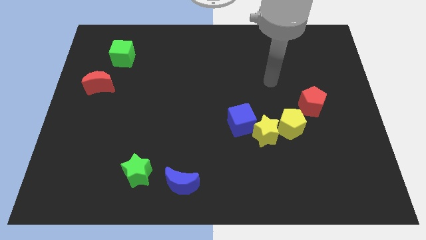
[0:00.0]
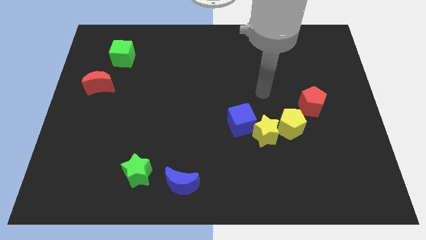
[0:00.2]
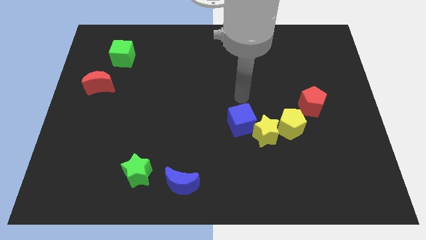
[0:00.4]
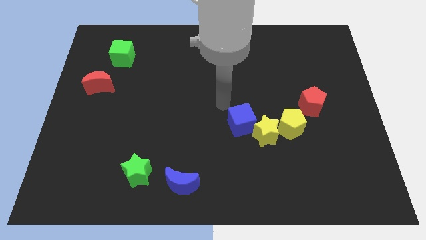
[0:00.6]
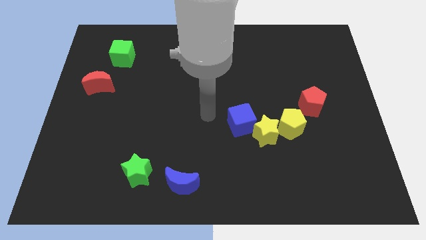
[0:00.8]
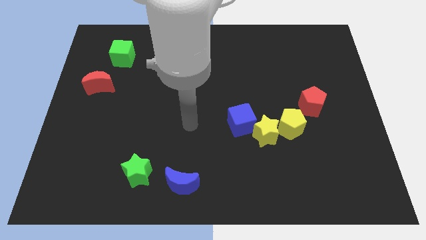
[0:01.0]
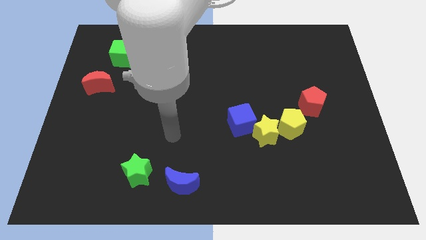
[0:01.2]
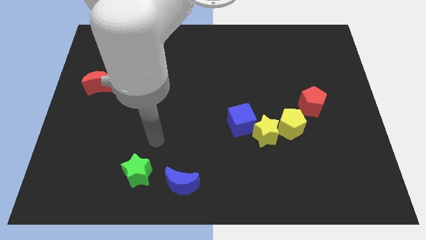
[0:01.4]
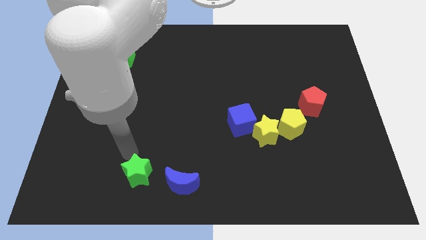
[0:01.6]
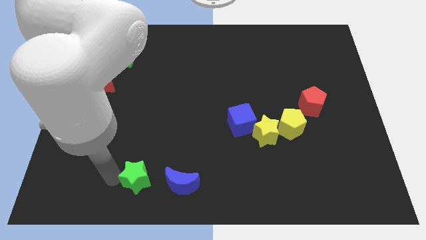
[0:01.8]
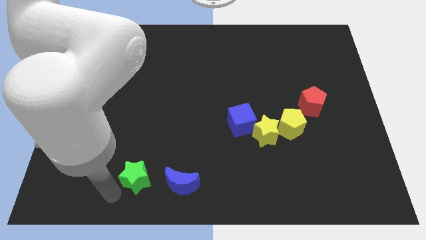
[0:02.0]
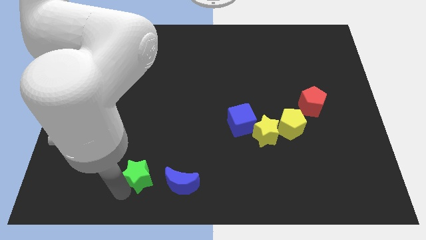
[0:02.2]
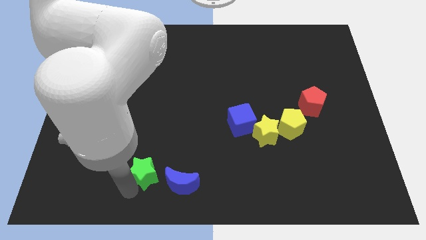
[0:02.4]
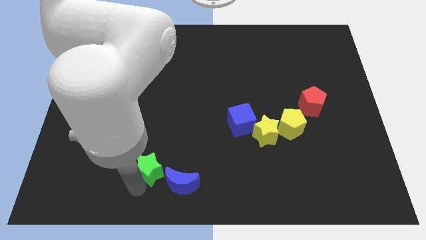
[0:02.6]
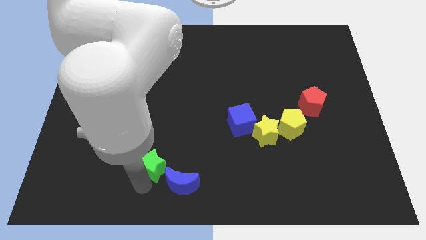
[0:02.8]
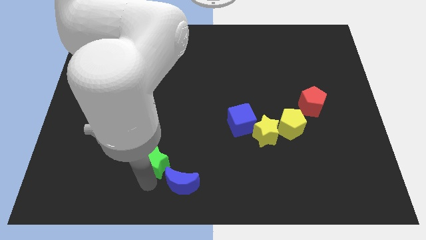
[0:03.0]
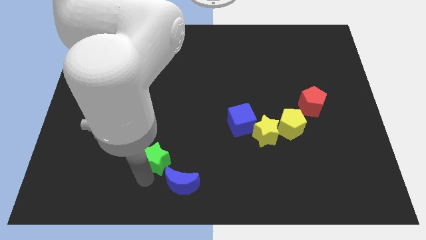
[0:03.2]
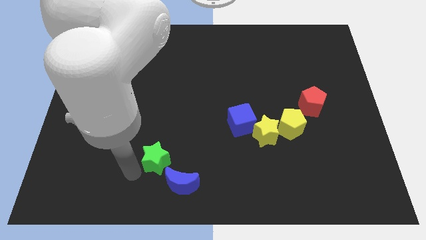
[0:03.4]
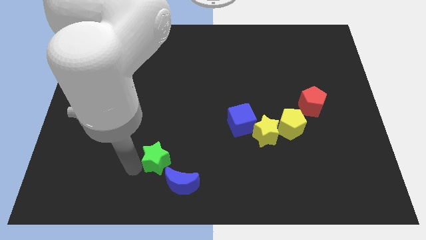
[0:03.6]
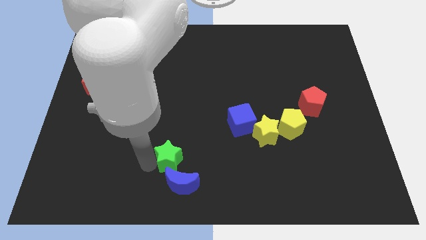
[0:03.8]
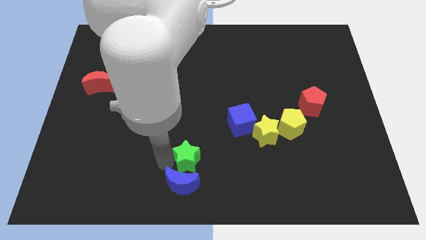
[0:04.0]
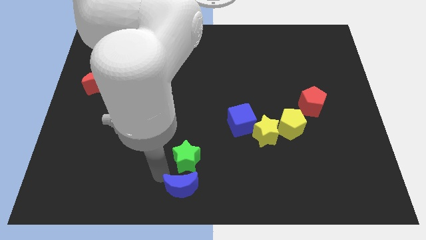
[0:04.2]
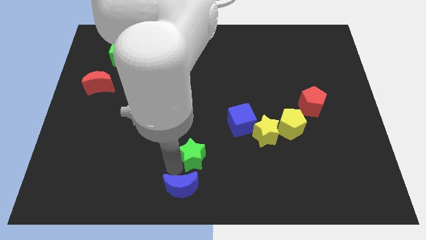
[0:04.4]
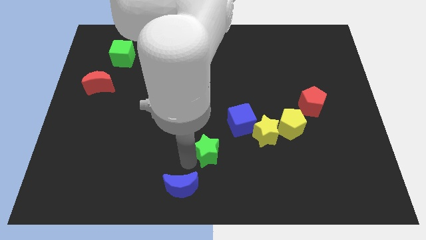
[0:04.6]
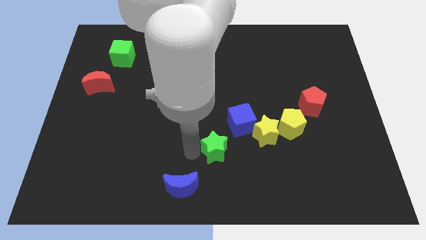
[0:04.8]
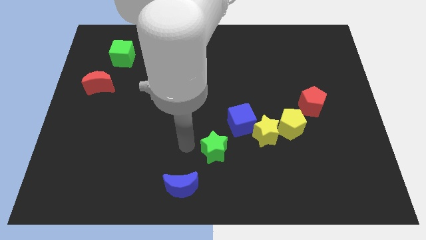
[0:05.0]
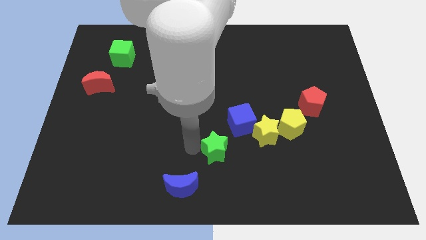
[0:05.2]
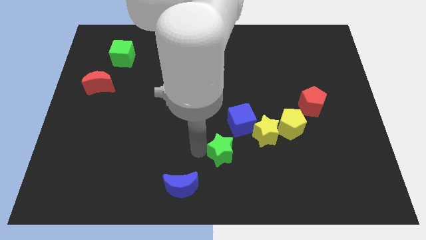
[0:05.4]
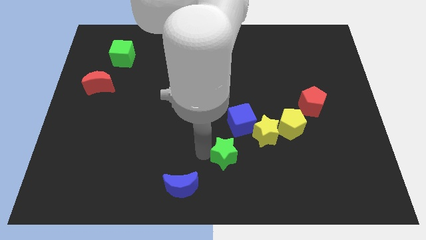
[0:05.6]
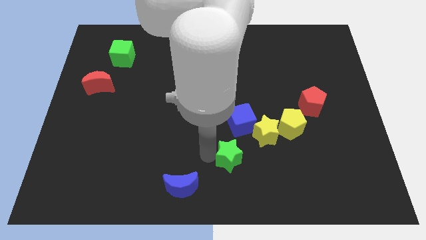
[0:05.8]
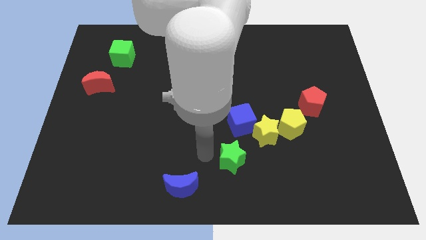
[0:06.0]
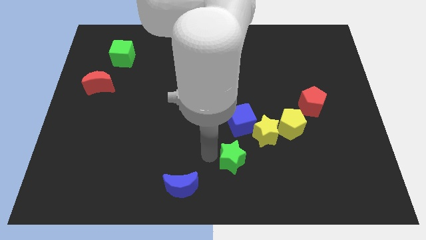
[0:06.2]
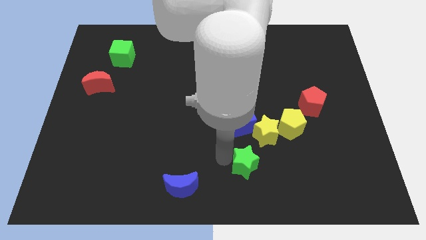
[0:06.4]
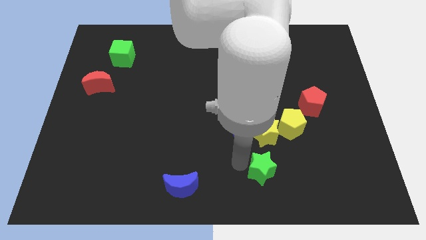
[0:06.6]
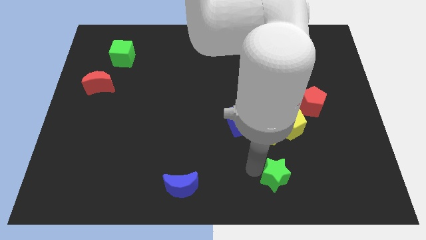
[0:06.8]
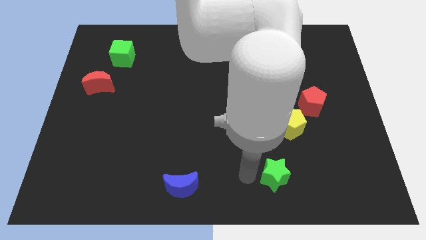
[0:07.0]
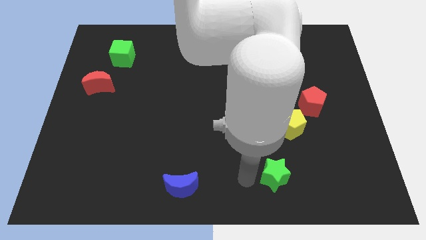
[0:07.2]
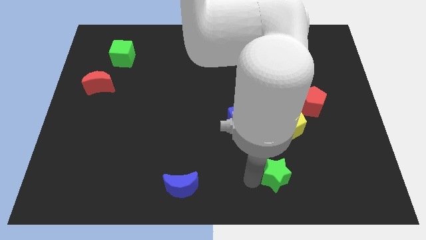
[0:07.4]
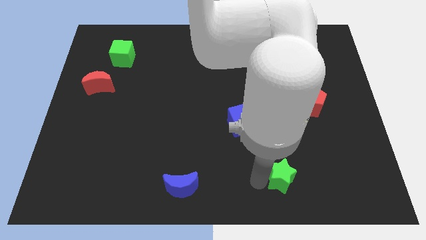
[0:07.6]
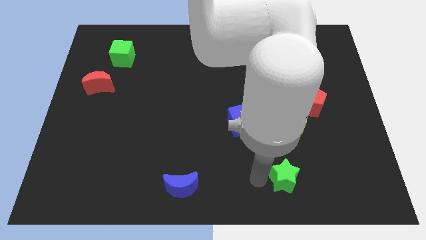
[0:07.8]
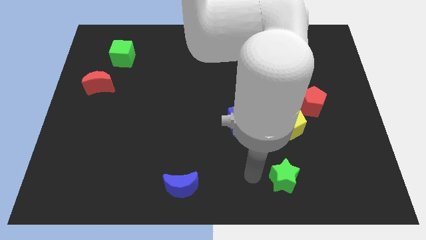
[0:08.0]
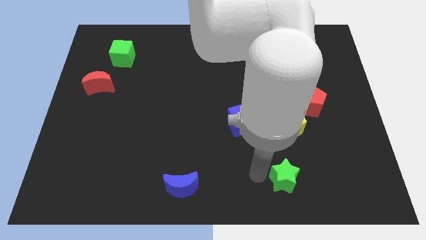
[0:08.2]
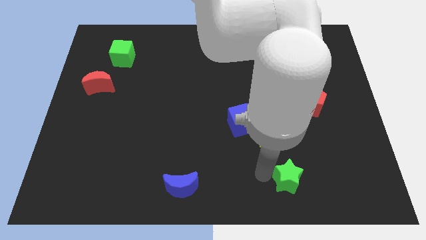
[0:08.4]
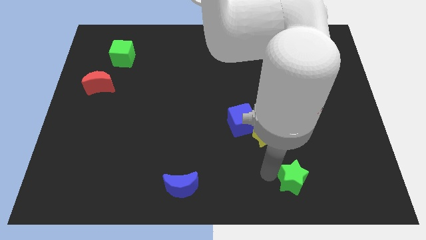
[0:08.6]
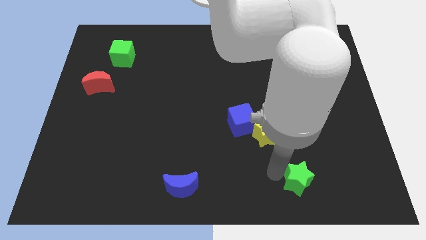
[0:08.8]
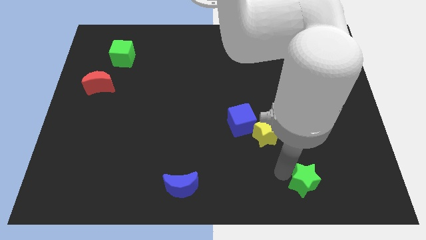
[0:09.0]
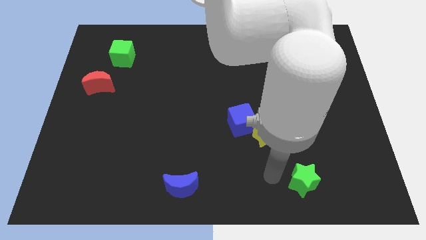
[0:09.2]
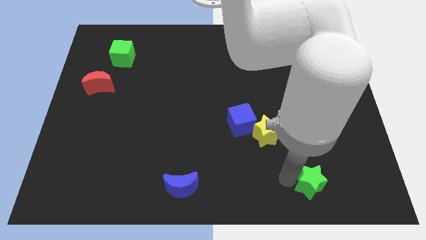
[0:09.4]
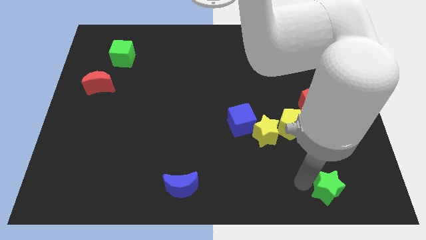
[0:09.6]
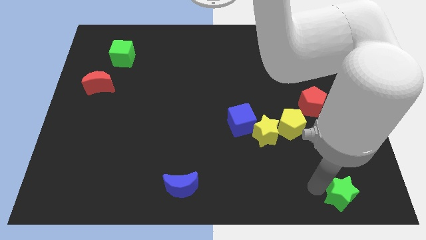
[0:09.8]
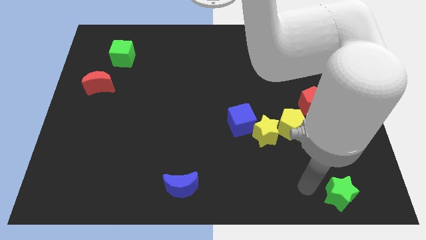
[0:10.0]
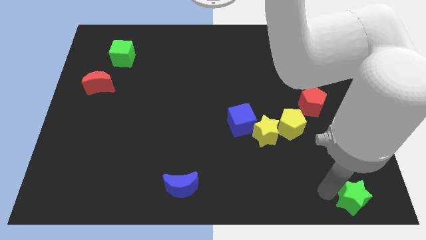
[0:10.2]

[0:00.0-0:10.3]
push the green star to the bottom right corner

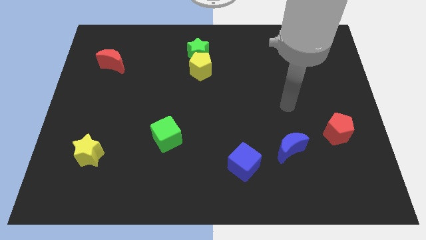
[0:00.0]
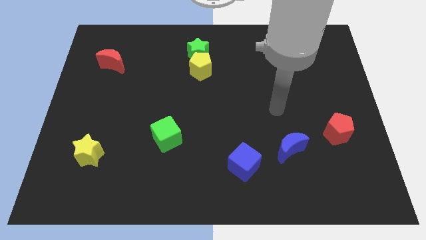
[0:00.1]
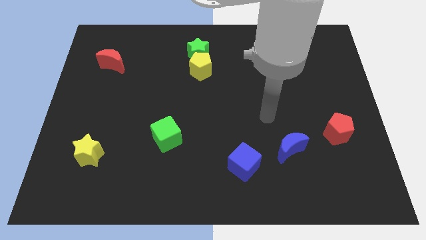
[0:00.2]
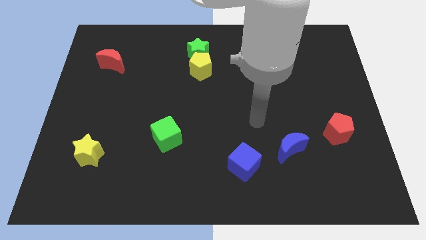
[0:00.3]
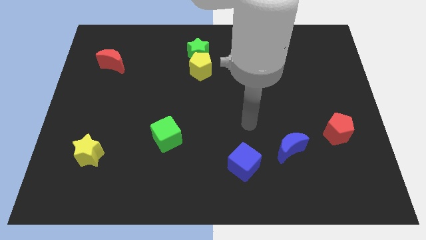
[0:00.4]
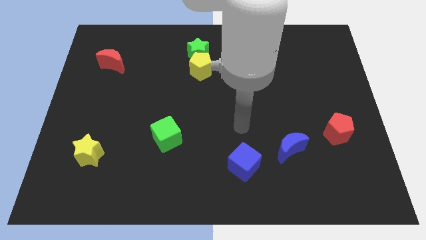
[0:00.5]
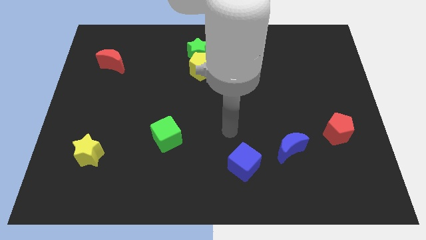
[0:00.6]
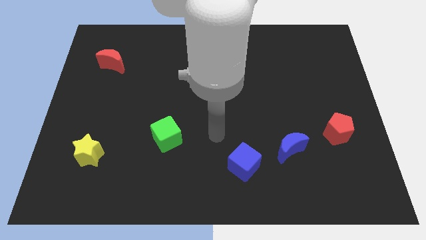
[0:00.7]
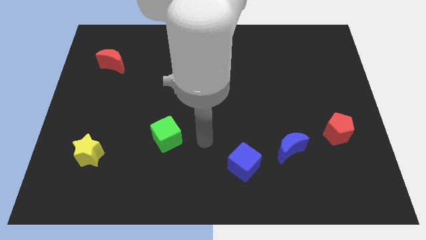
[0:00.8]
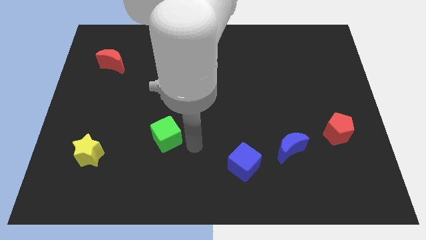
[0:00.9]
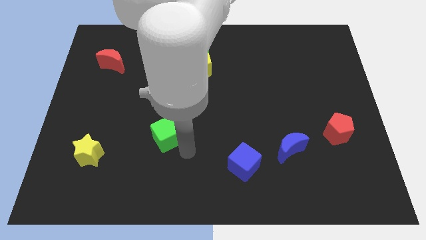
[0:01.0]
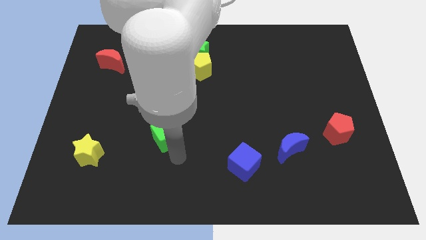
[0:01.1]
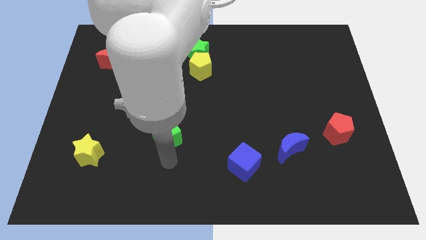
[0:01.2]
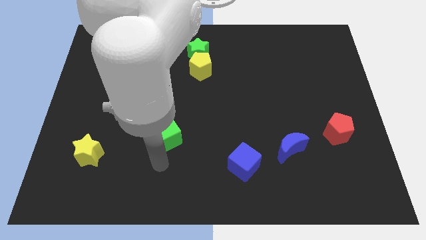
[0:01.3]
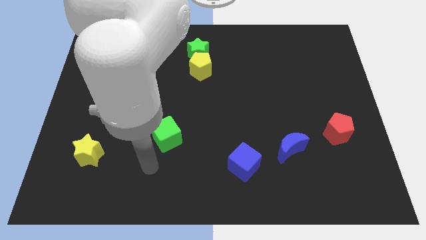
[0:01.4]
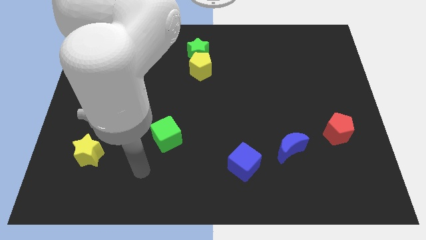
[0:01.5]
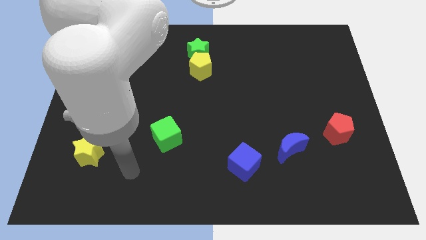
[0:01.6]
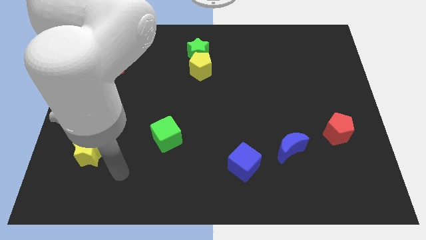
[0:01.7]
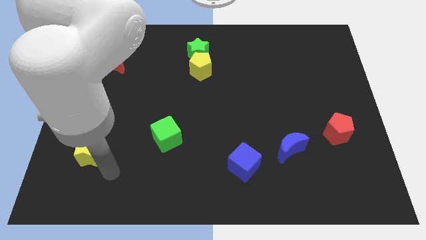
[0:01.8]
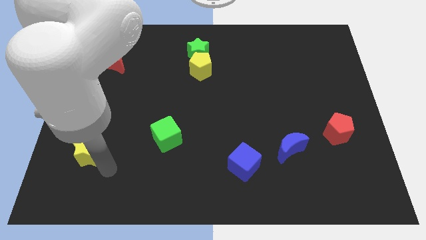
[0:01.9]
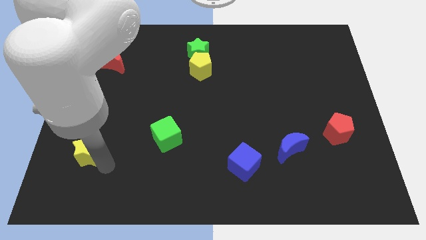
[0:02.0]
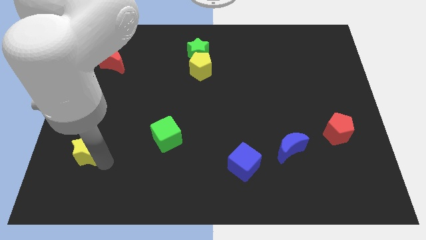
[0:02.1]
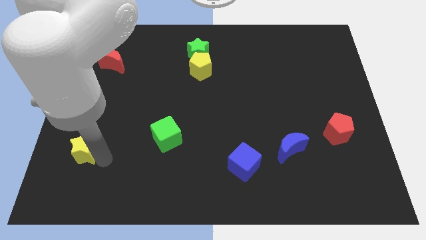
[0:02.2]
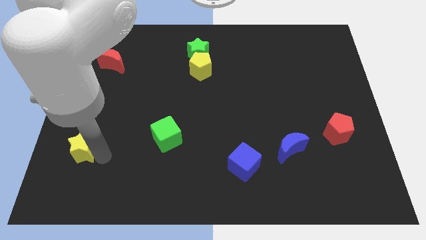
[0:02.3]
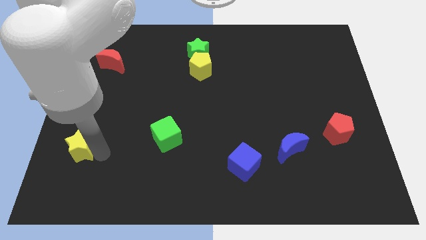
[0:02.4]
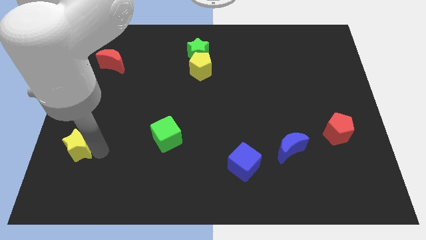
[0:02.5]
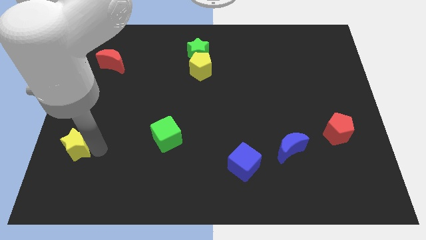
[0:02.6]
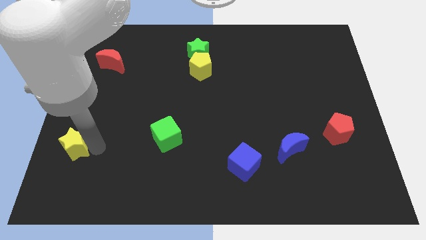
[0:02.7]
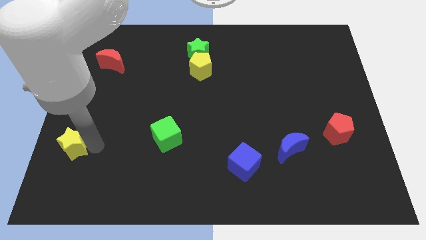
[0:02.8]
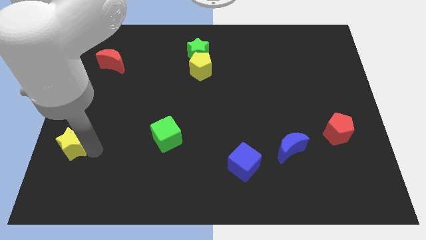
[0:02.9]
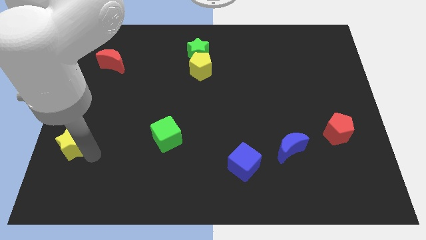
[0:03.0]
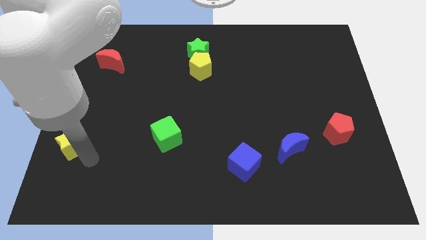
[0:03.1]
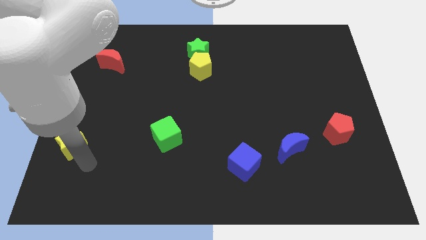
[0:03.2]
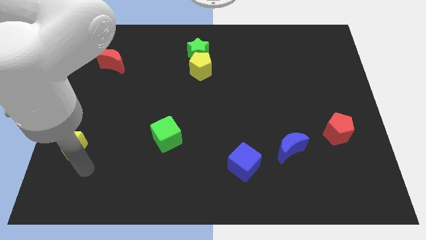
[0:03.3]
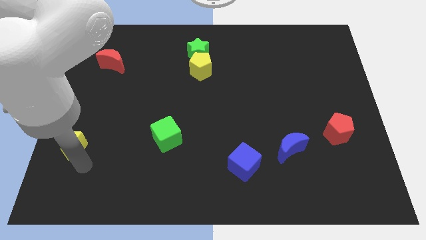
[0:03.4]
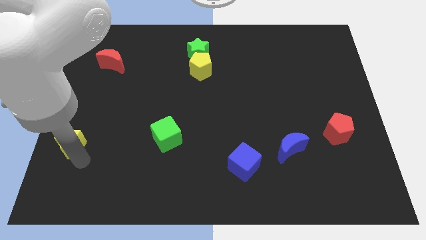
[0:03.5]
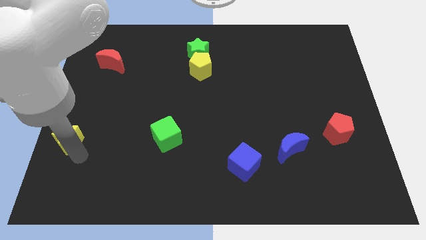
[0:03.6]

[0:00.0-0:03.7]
move the yellow star to the left side
